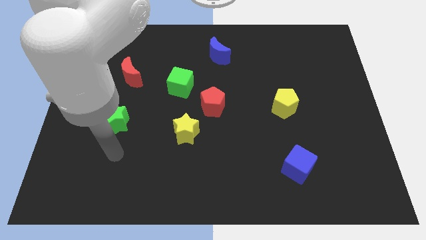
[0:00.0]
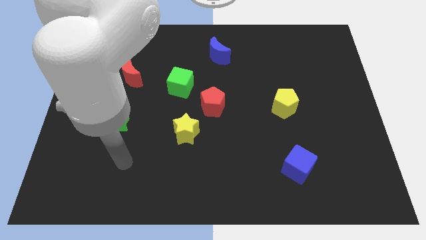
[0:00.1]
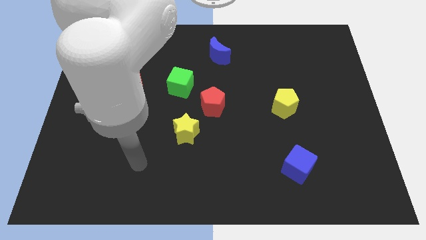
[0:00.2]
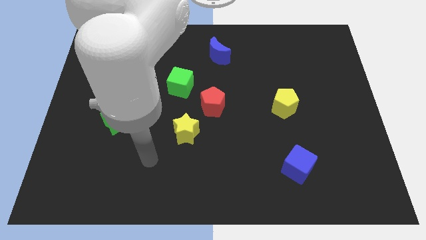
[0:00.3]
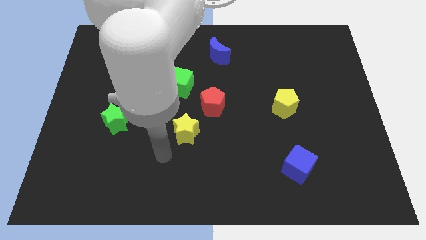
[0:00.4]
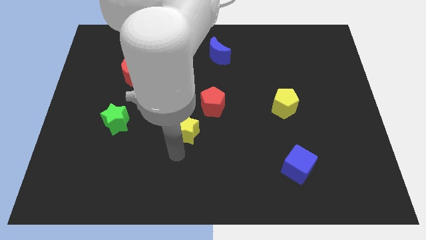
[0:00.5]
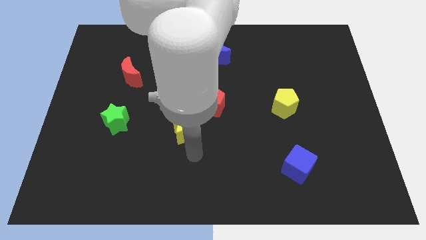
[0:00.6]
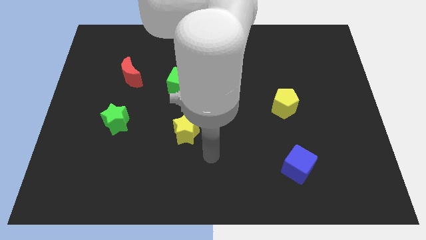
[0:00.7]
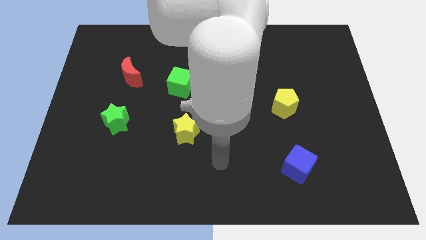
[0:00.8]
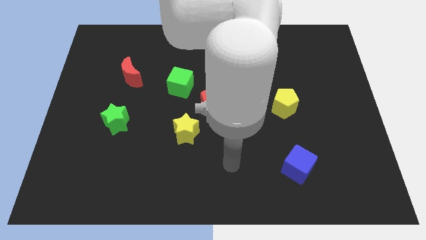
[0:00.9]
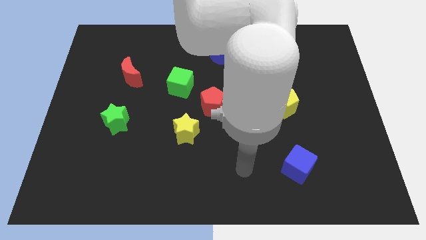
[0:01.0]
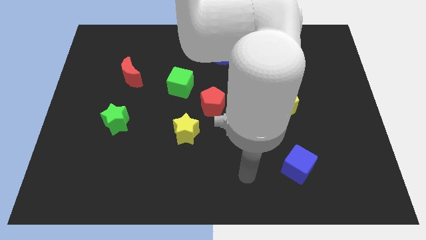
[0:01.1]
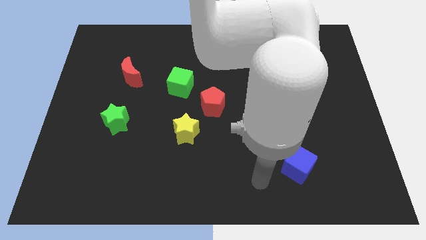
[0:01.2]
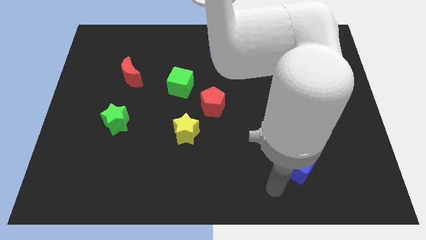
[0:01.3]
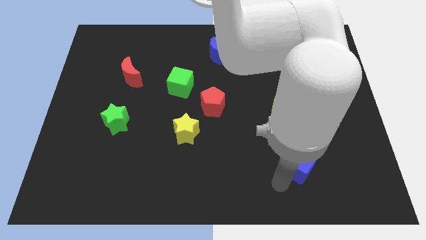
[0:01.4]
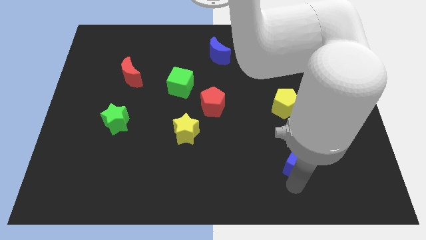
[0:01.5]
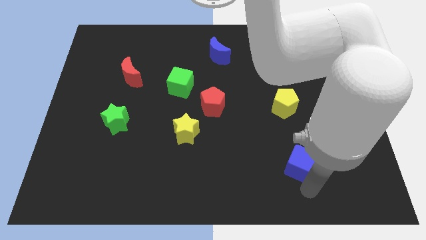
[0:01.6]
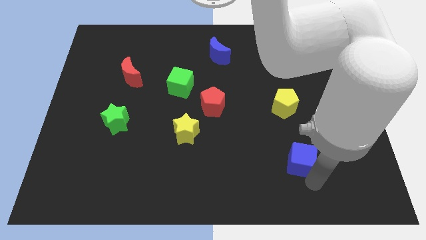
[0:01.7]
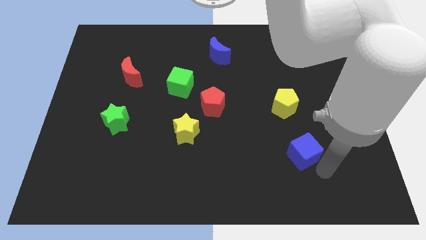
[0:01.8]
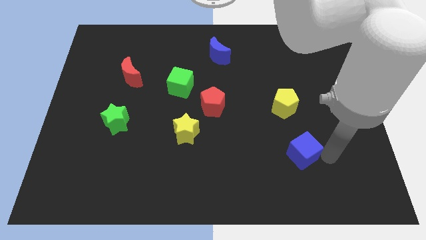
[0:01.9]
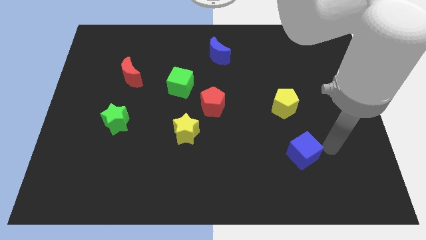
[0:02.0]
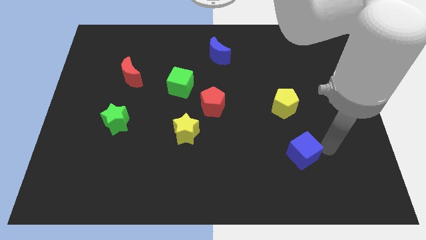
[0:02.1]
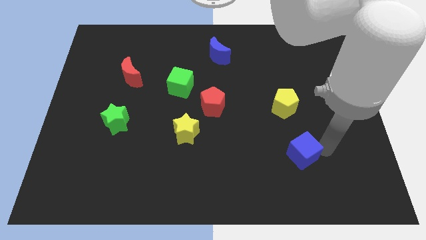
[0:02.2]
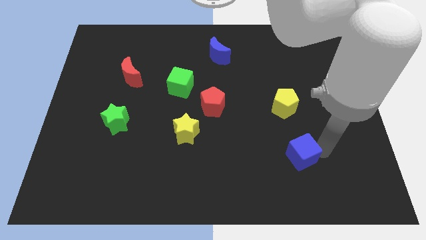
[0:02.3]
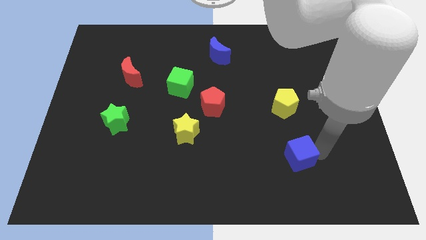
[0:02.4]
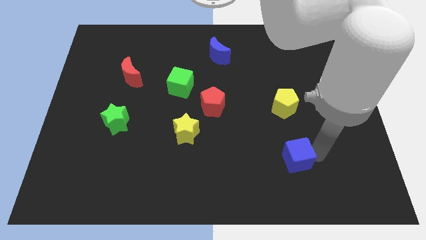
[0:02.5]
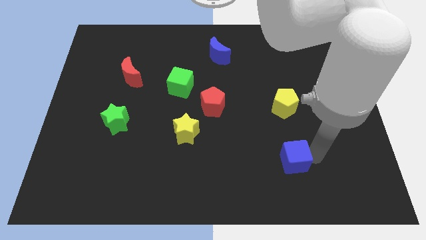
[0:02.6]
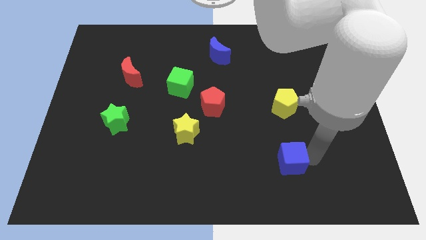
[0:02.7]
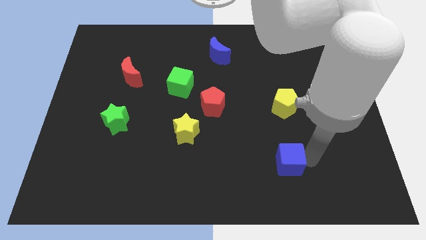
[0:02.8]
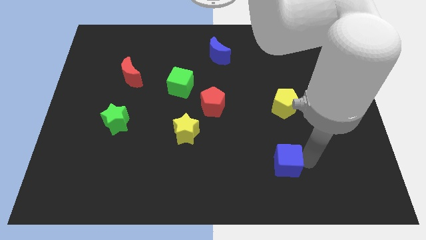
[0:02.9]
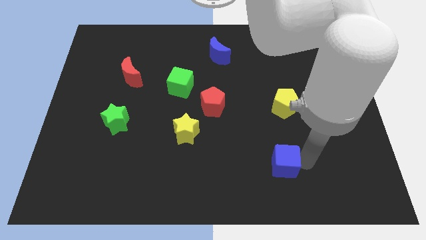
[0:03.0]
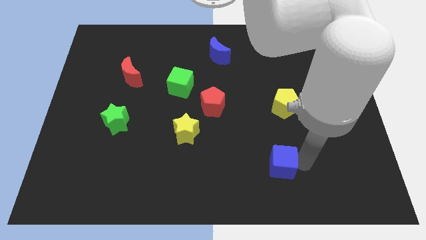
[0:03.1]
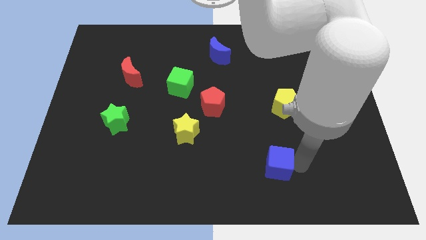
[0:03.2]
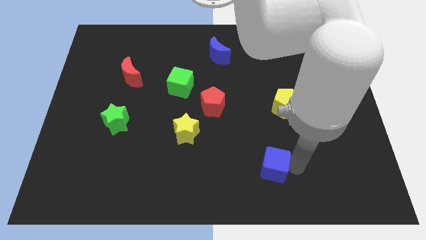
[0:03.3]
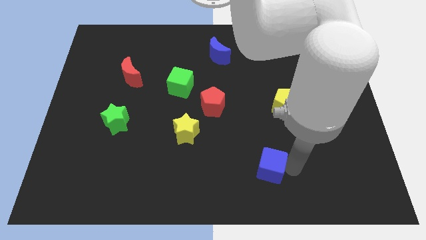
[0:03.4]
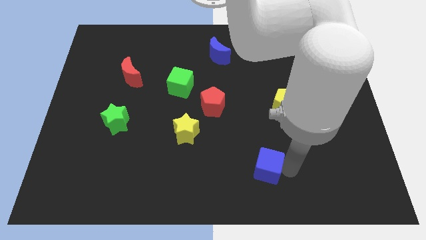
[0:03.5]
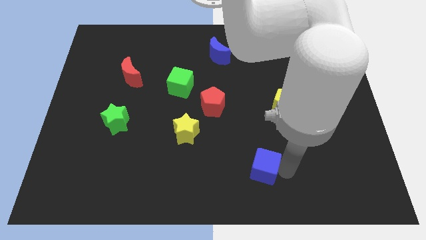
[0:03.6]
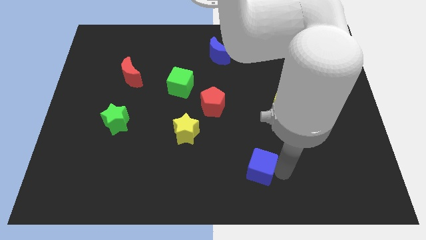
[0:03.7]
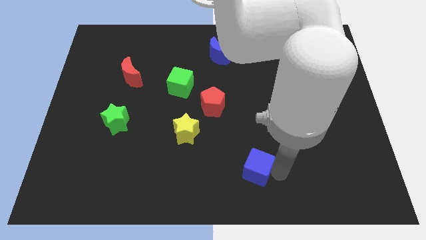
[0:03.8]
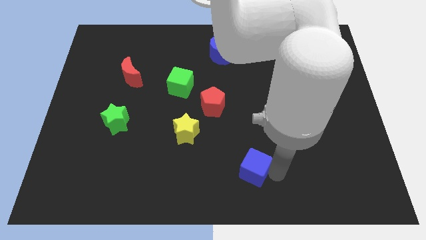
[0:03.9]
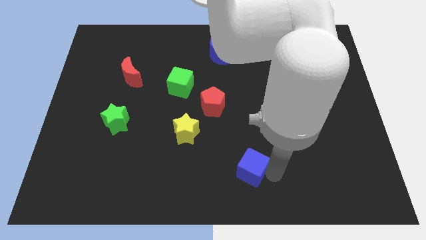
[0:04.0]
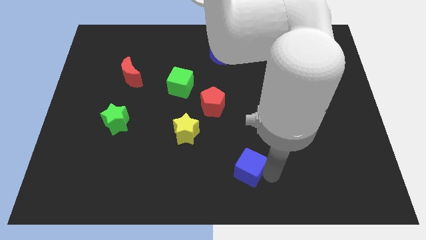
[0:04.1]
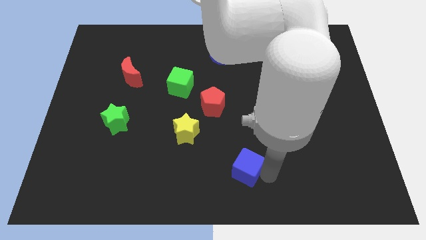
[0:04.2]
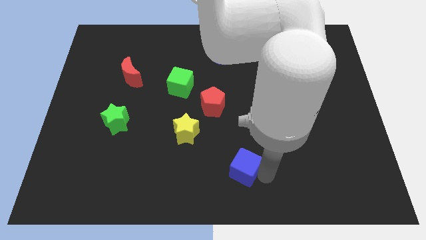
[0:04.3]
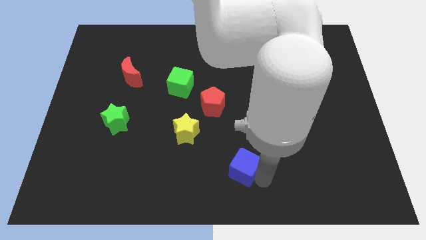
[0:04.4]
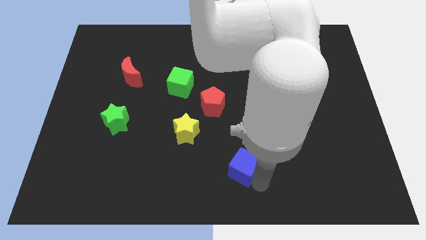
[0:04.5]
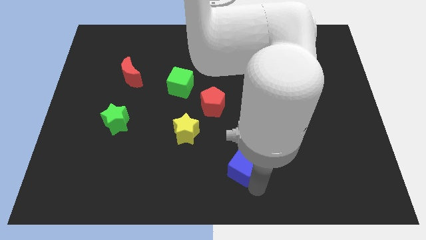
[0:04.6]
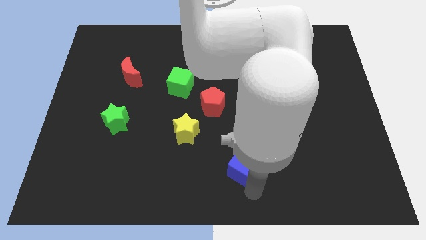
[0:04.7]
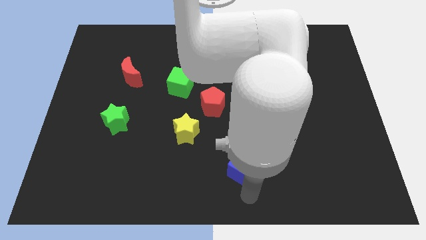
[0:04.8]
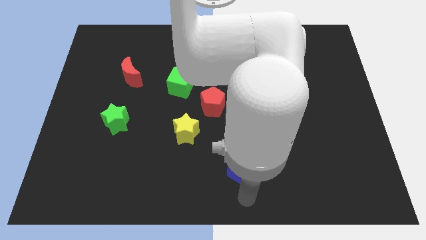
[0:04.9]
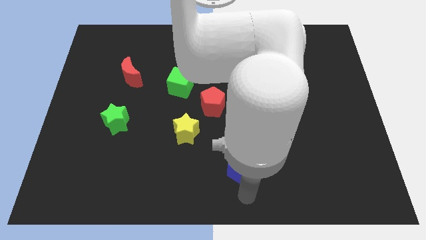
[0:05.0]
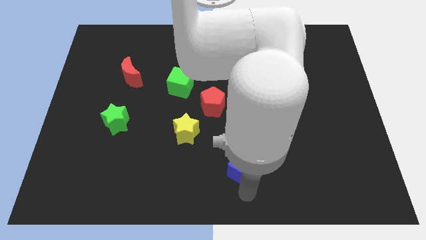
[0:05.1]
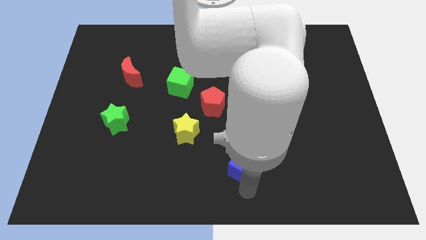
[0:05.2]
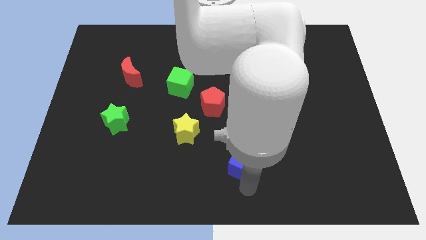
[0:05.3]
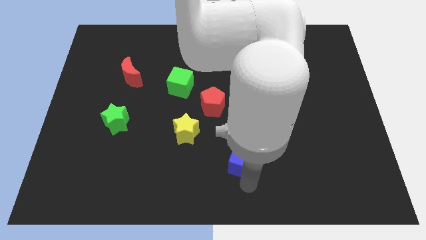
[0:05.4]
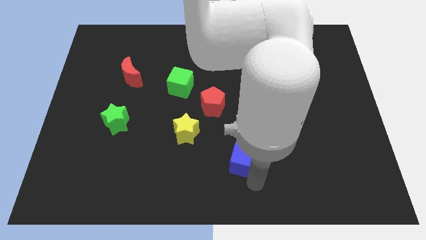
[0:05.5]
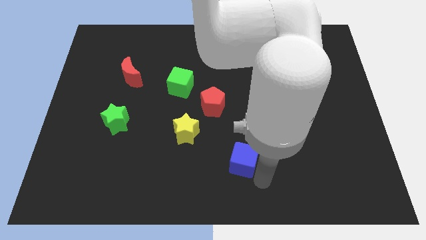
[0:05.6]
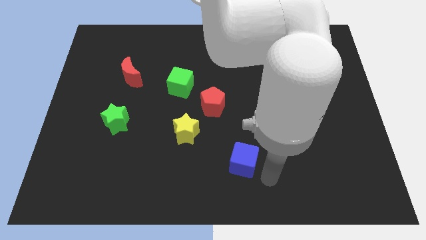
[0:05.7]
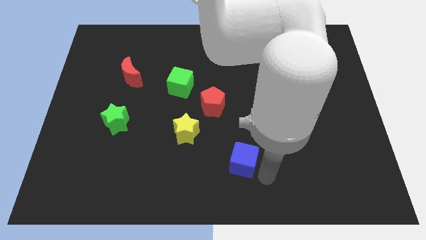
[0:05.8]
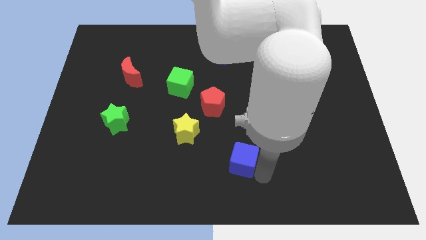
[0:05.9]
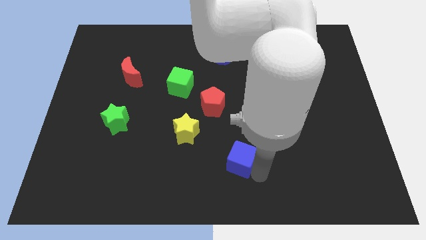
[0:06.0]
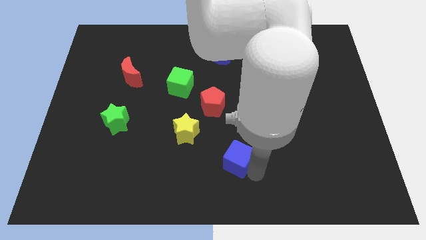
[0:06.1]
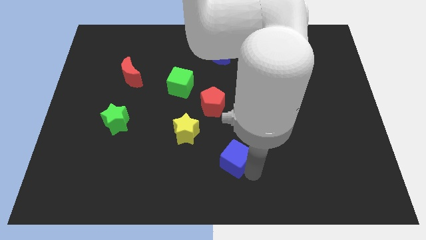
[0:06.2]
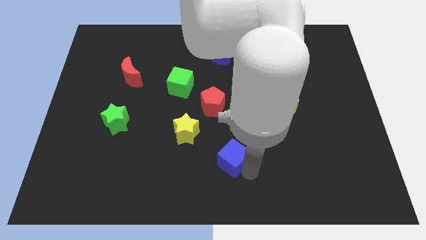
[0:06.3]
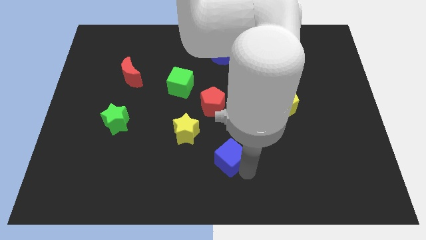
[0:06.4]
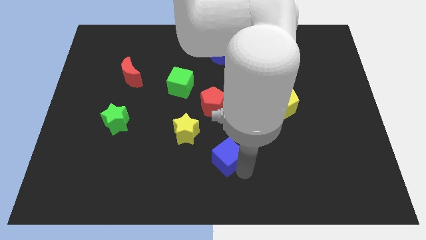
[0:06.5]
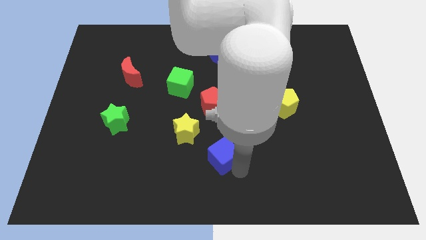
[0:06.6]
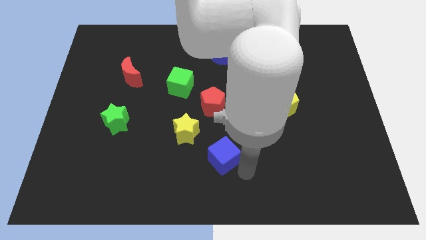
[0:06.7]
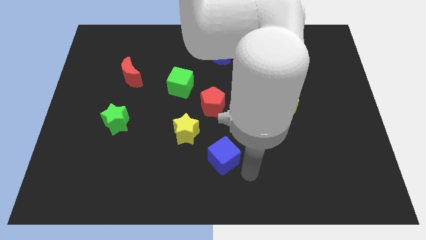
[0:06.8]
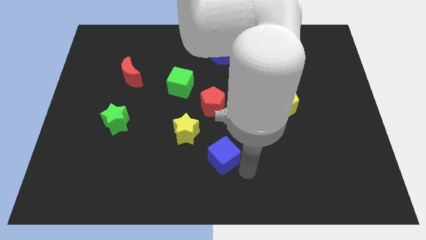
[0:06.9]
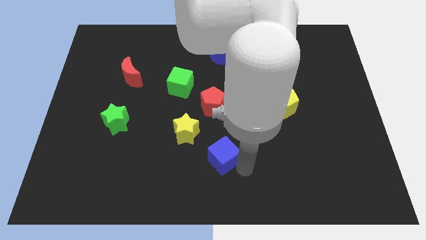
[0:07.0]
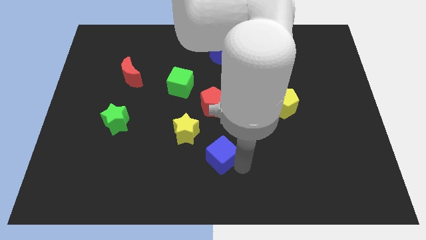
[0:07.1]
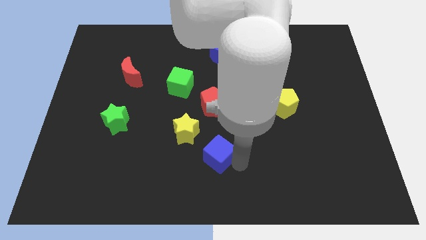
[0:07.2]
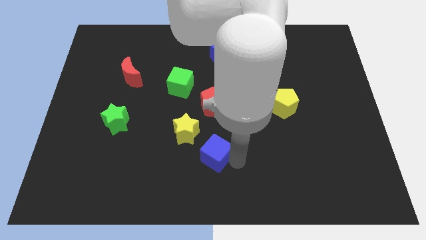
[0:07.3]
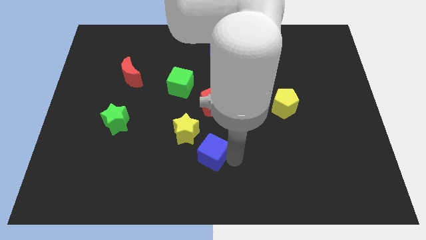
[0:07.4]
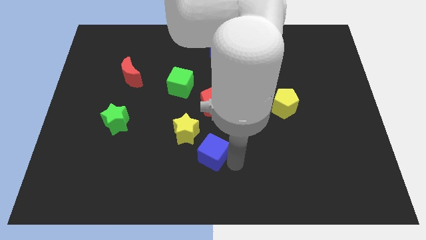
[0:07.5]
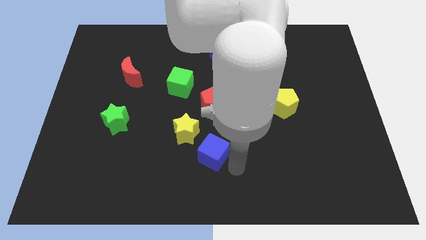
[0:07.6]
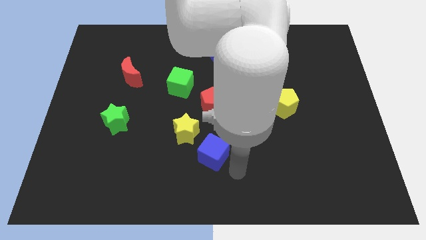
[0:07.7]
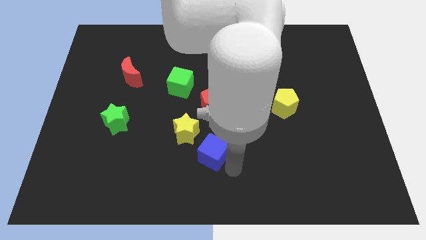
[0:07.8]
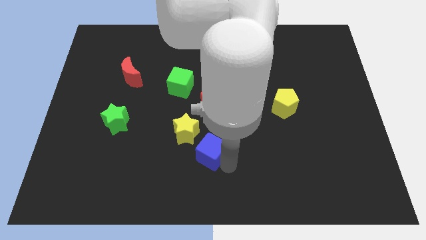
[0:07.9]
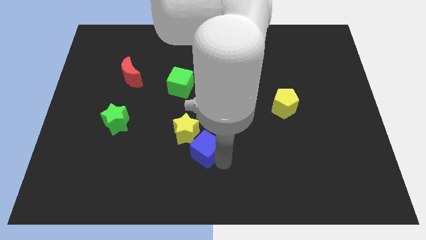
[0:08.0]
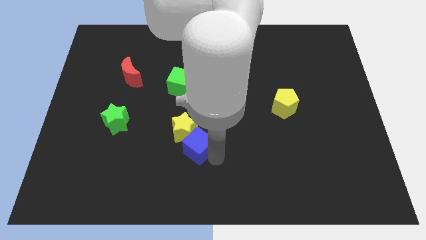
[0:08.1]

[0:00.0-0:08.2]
slide the blue cube next to the yellow star
